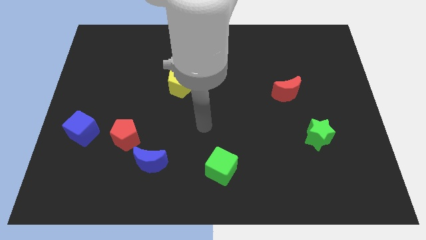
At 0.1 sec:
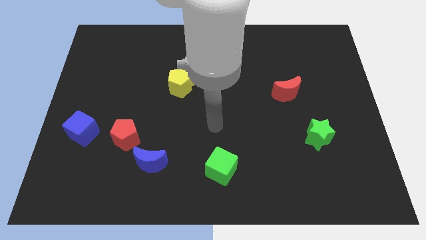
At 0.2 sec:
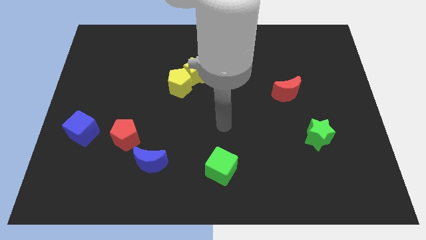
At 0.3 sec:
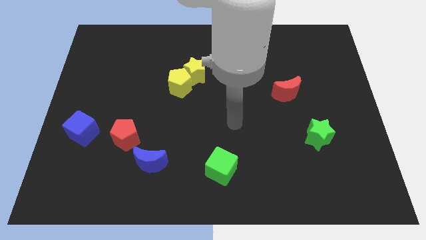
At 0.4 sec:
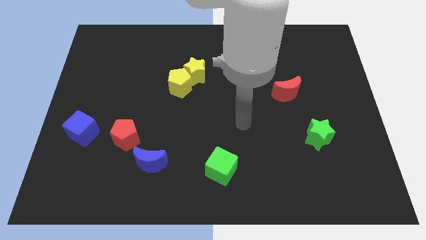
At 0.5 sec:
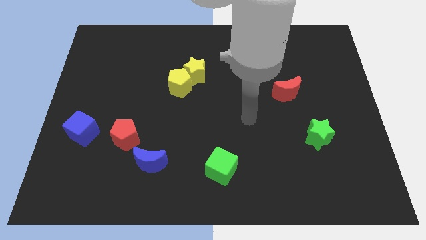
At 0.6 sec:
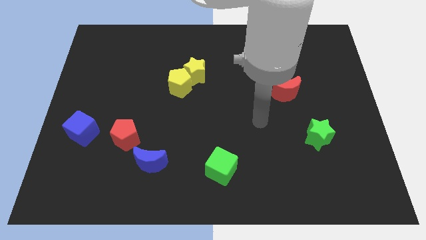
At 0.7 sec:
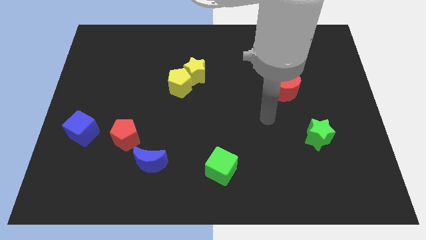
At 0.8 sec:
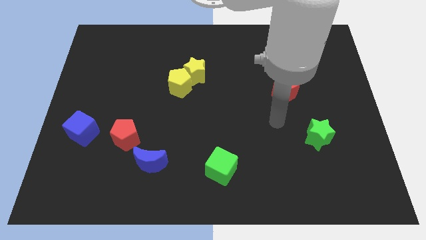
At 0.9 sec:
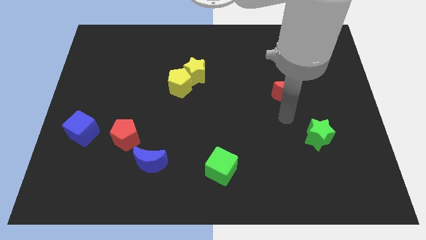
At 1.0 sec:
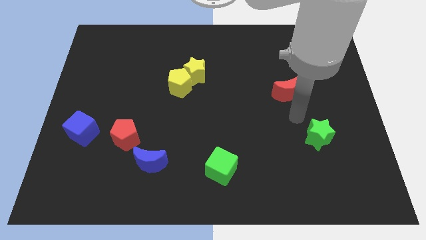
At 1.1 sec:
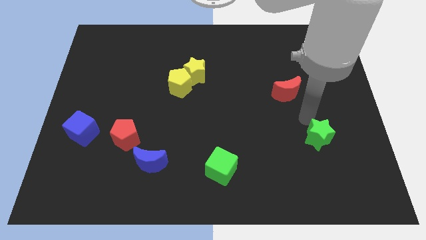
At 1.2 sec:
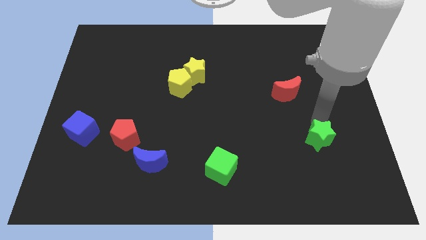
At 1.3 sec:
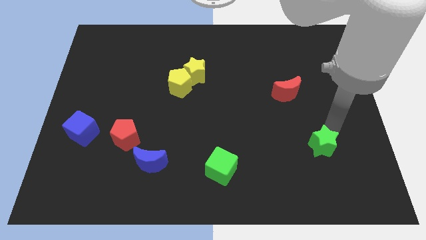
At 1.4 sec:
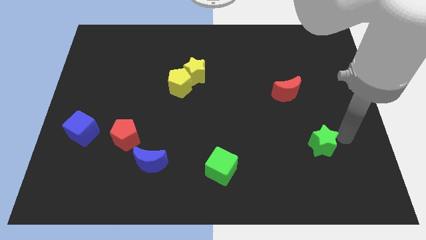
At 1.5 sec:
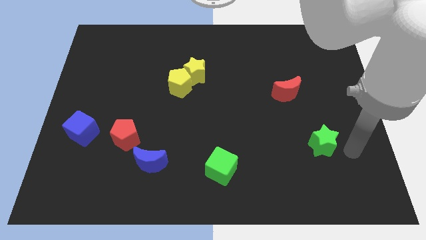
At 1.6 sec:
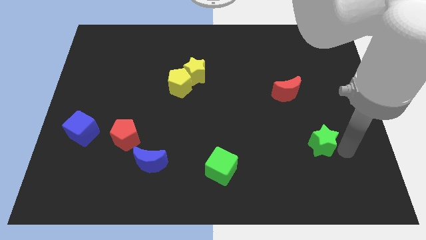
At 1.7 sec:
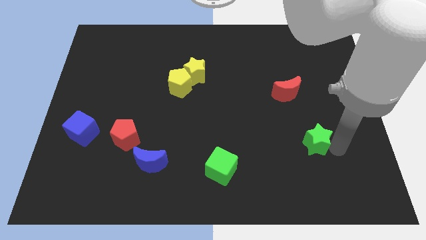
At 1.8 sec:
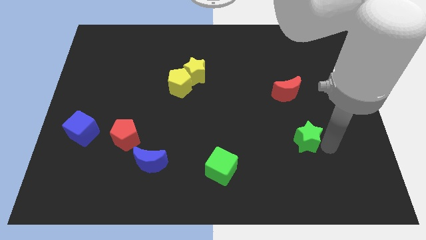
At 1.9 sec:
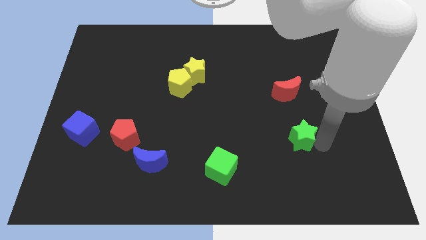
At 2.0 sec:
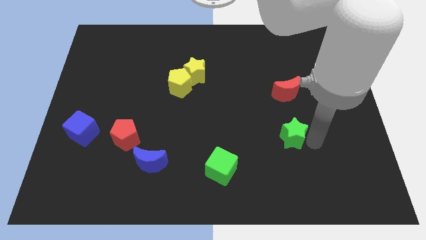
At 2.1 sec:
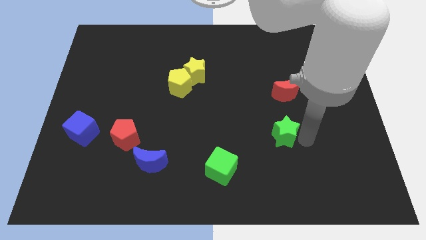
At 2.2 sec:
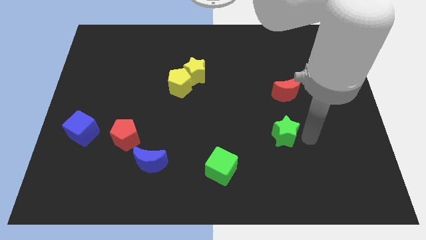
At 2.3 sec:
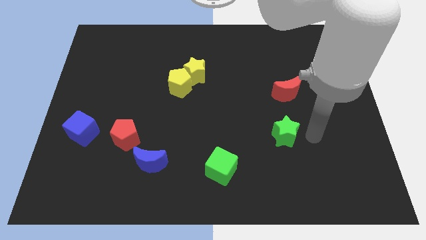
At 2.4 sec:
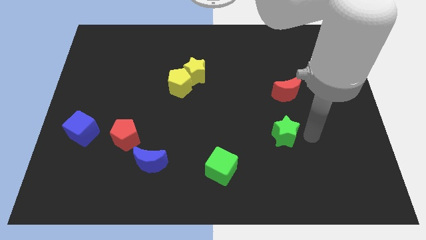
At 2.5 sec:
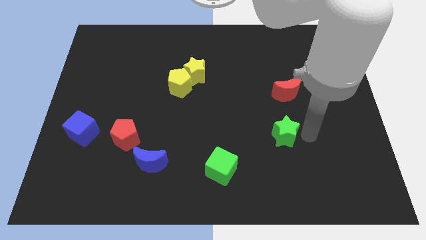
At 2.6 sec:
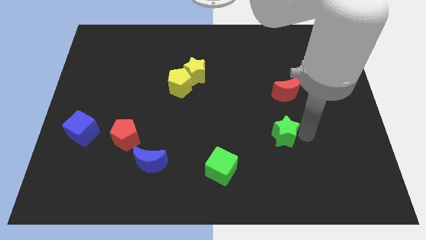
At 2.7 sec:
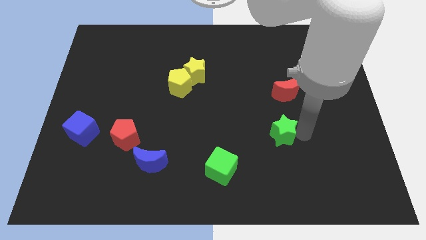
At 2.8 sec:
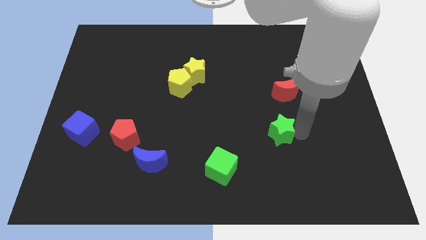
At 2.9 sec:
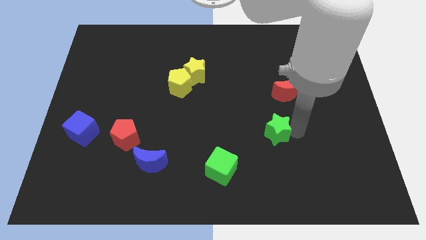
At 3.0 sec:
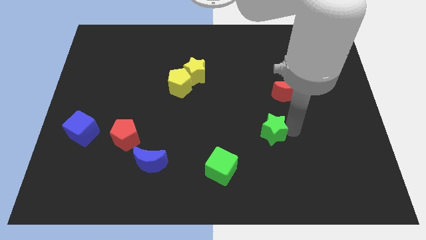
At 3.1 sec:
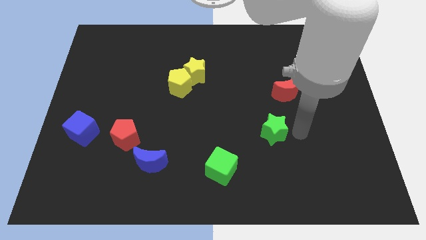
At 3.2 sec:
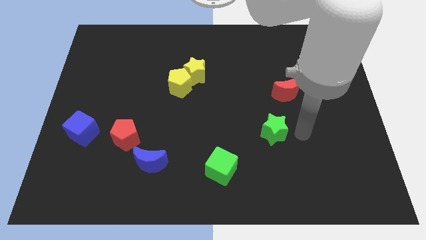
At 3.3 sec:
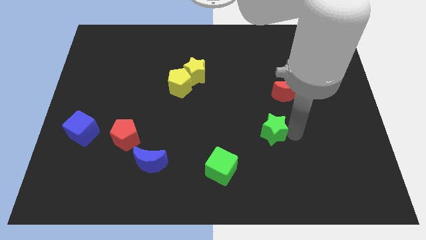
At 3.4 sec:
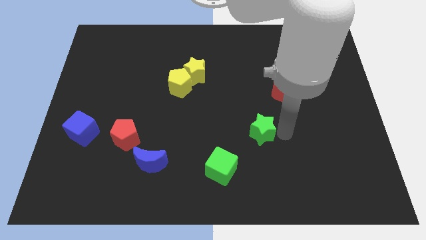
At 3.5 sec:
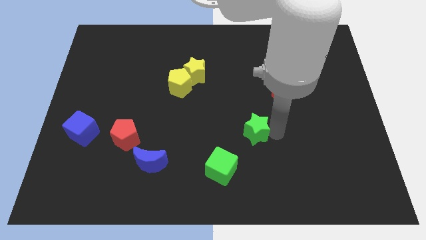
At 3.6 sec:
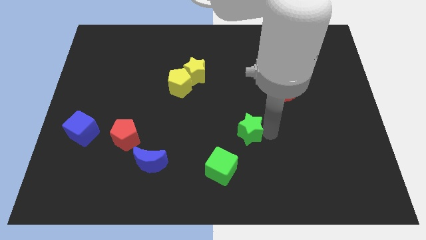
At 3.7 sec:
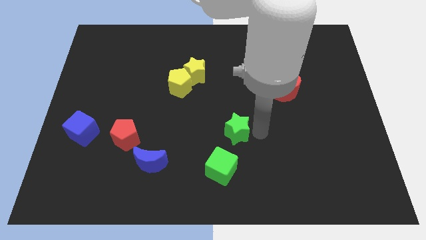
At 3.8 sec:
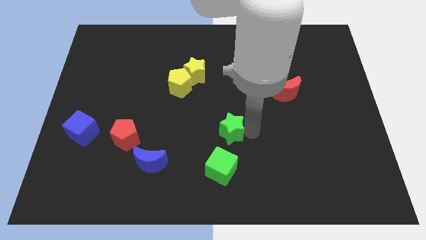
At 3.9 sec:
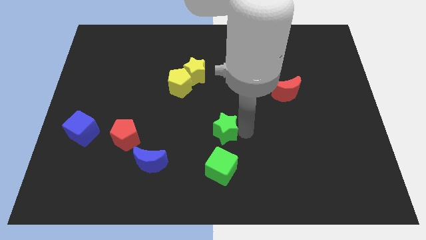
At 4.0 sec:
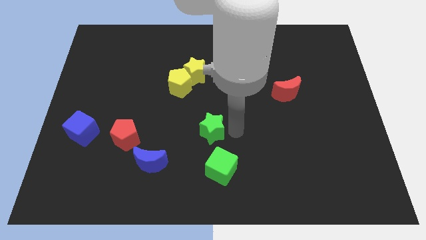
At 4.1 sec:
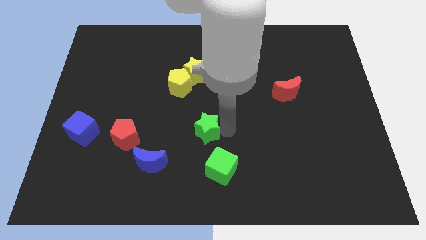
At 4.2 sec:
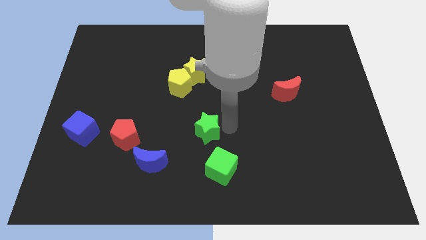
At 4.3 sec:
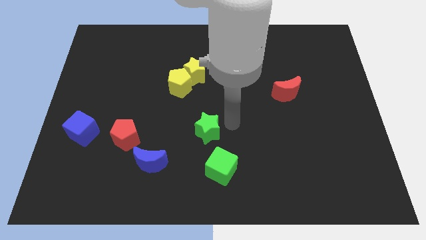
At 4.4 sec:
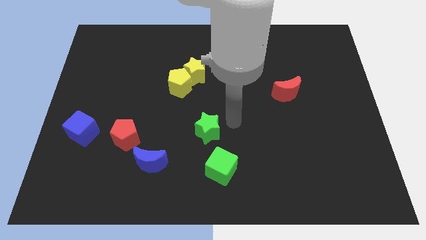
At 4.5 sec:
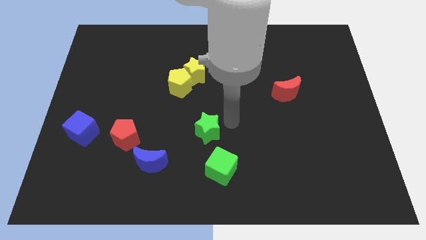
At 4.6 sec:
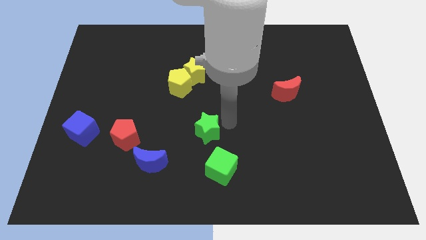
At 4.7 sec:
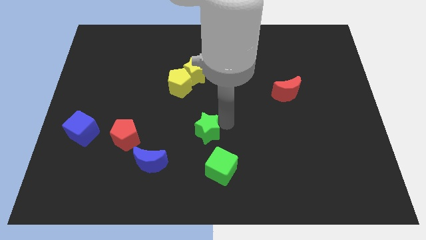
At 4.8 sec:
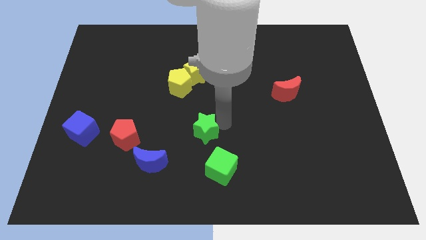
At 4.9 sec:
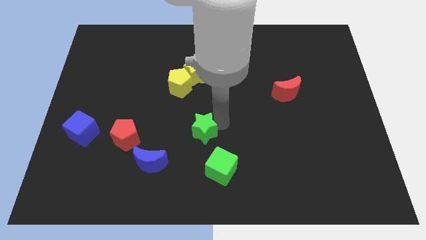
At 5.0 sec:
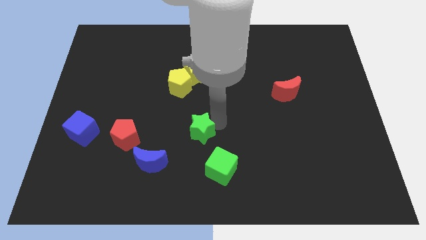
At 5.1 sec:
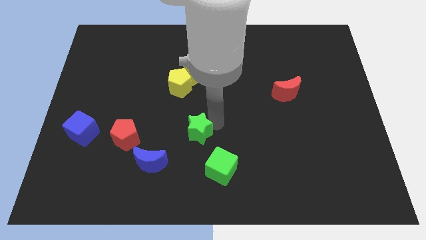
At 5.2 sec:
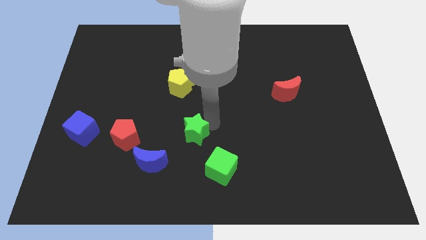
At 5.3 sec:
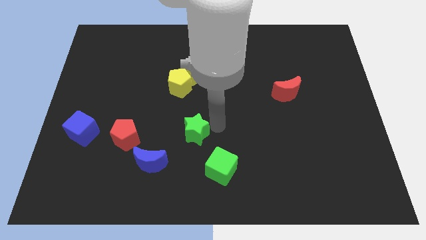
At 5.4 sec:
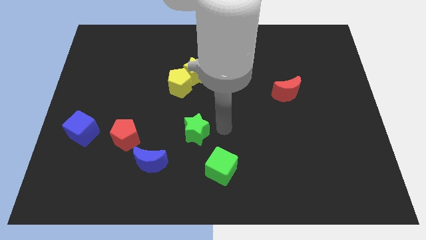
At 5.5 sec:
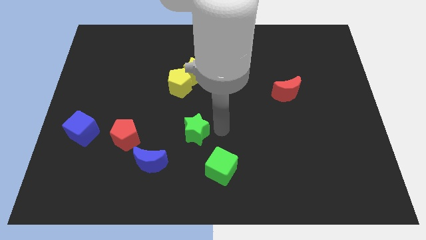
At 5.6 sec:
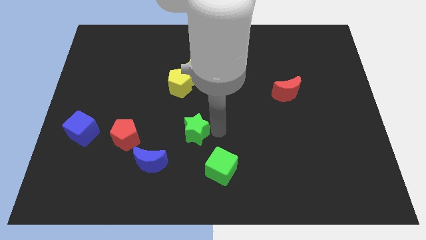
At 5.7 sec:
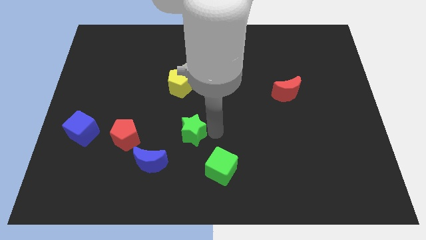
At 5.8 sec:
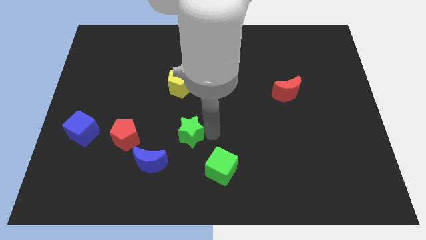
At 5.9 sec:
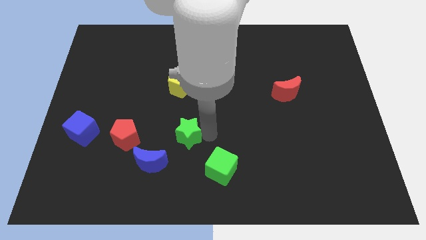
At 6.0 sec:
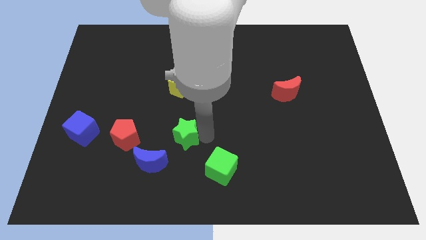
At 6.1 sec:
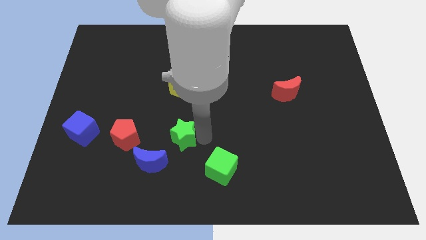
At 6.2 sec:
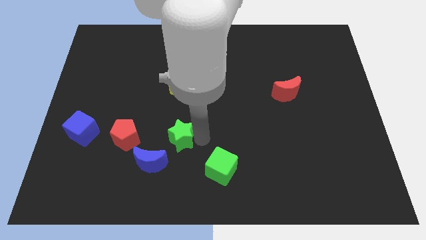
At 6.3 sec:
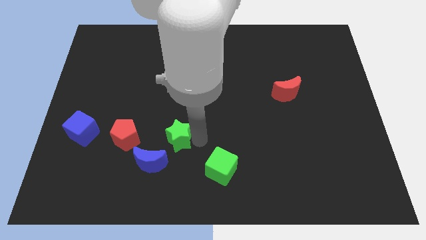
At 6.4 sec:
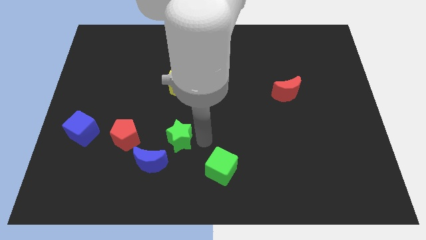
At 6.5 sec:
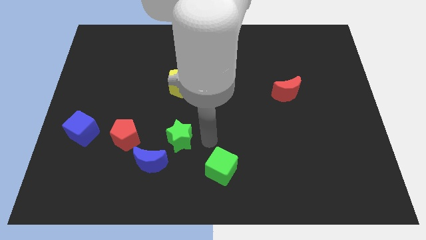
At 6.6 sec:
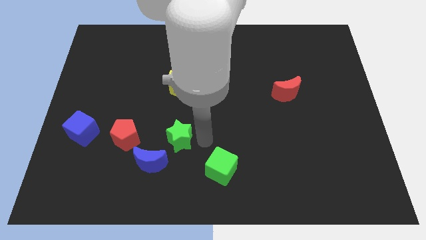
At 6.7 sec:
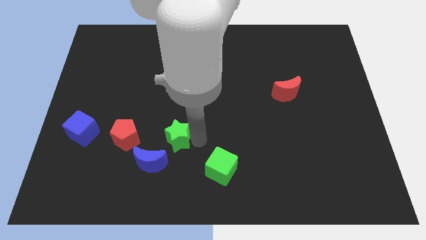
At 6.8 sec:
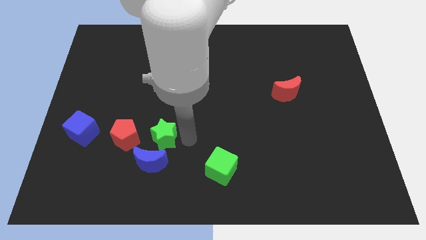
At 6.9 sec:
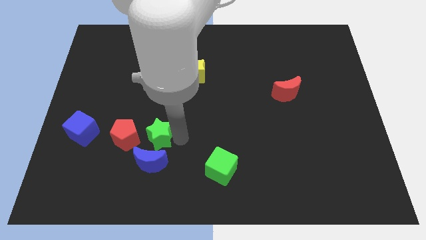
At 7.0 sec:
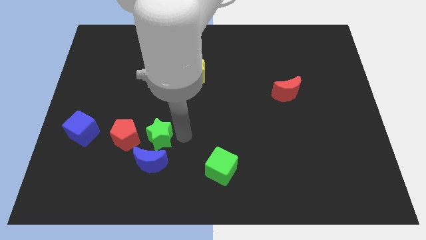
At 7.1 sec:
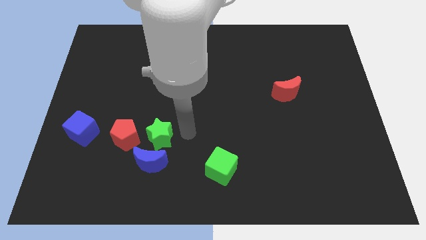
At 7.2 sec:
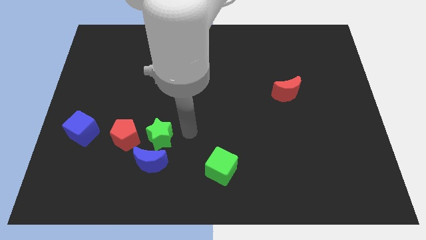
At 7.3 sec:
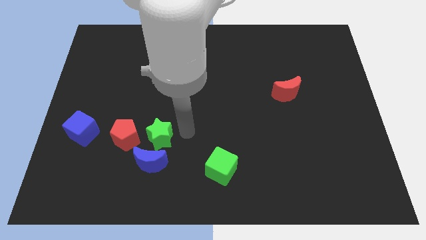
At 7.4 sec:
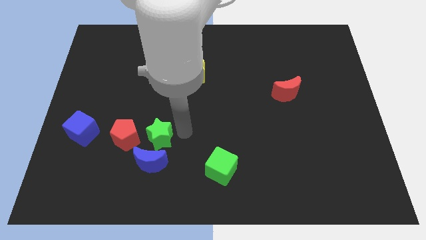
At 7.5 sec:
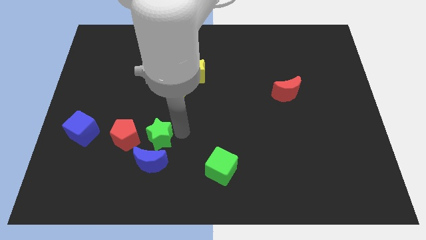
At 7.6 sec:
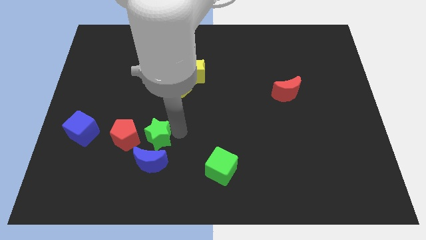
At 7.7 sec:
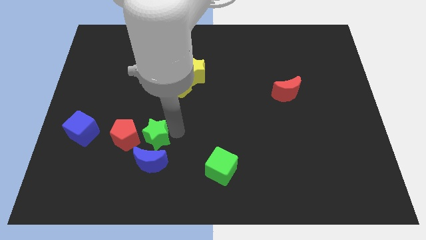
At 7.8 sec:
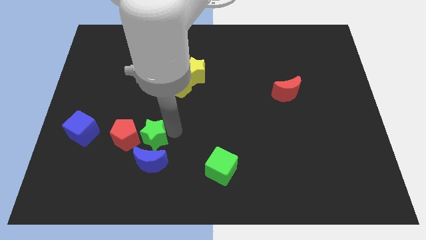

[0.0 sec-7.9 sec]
slide the green star towards the red pentagon
